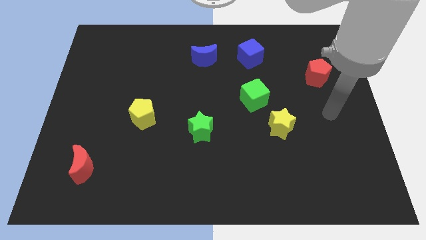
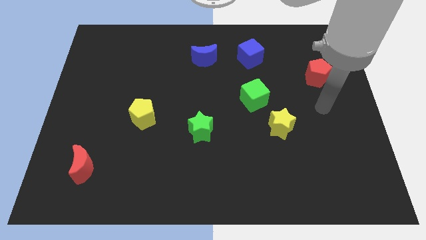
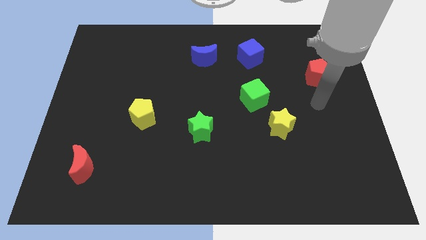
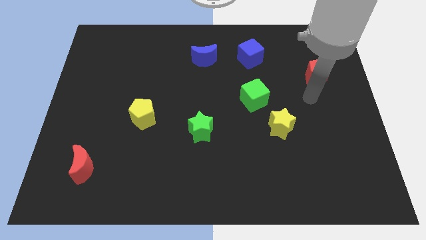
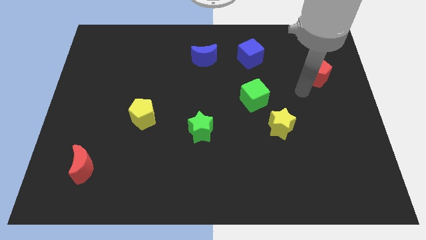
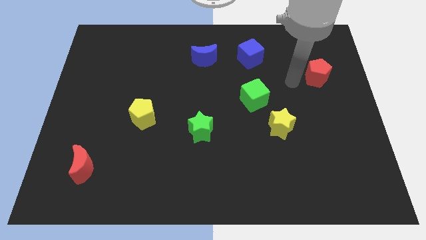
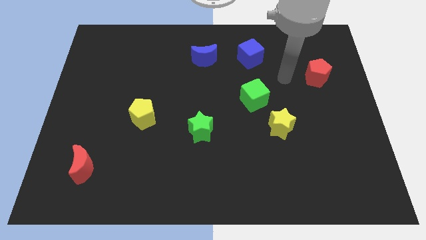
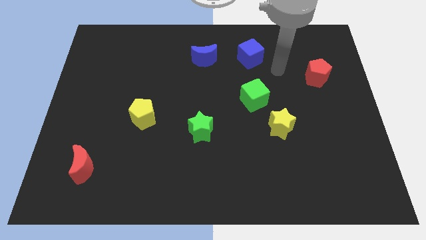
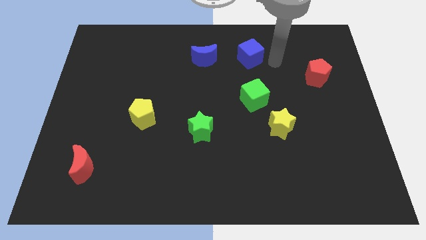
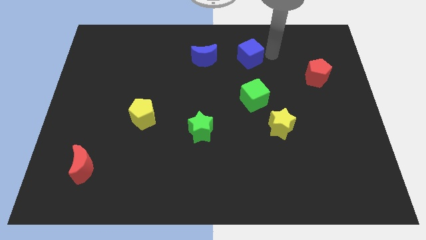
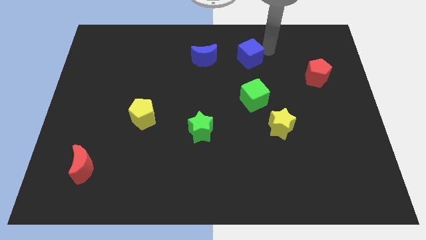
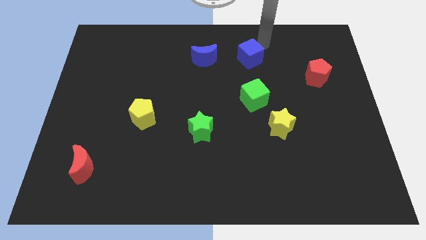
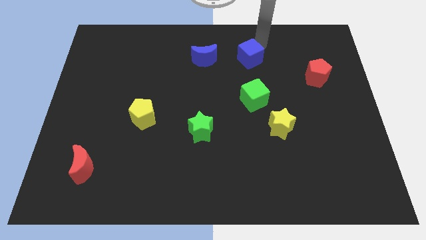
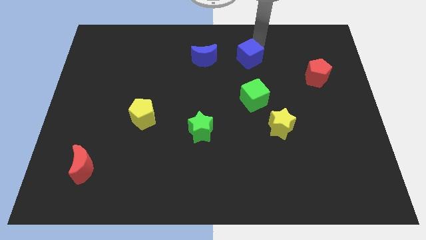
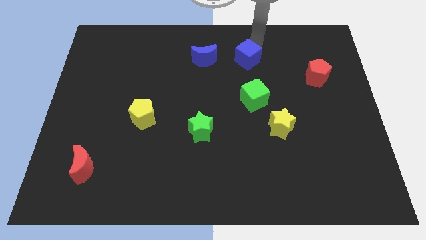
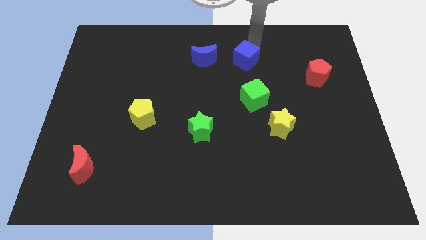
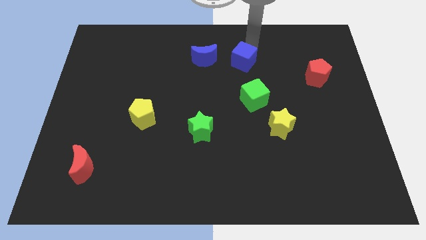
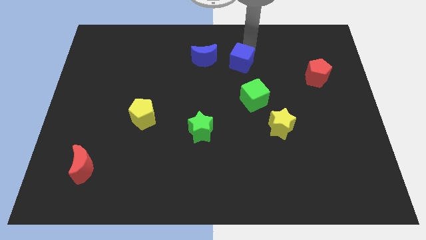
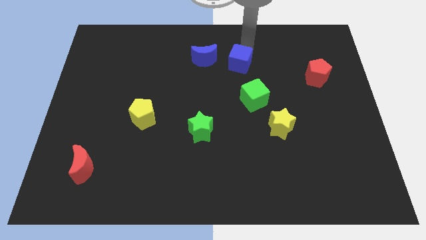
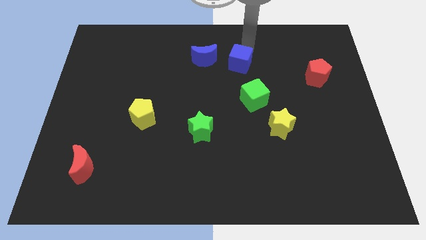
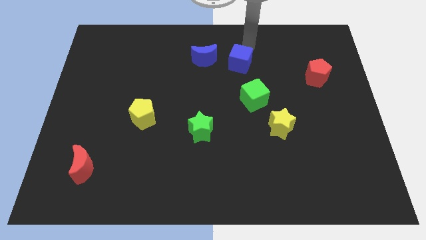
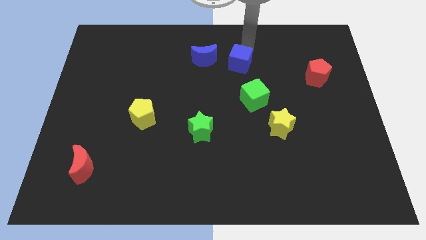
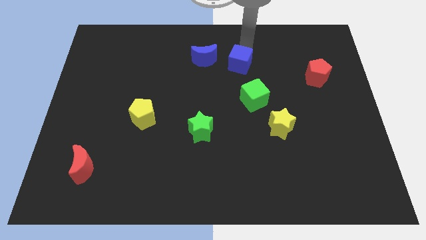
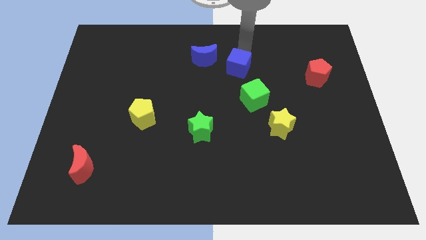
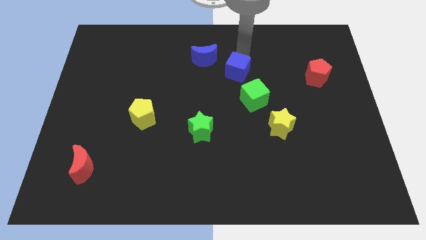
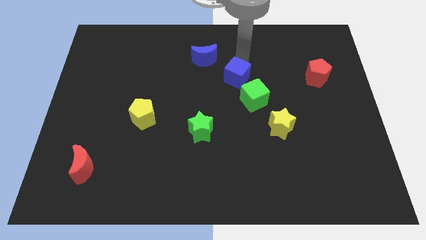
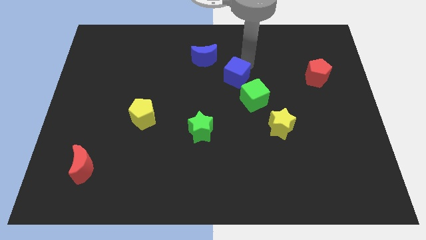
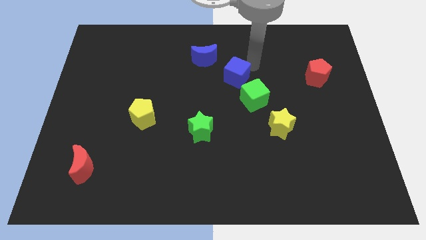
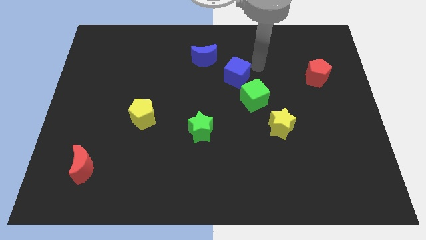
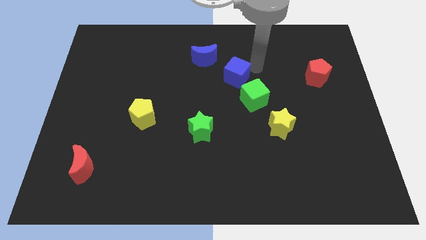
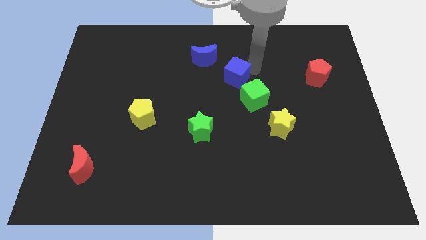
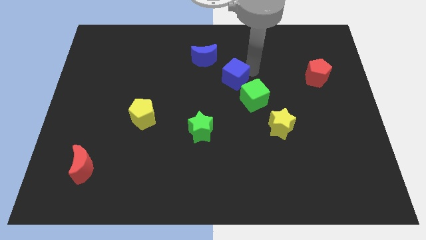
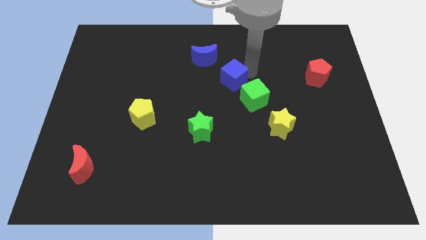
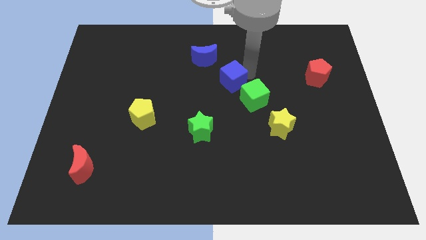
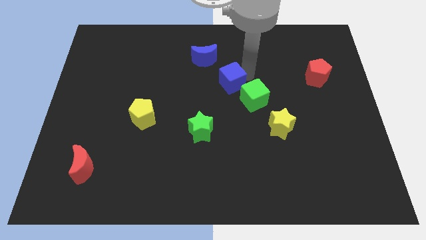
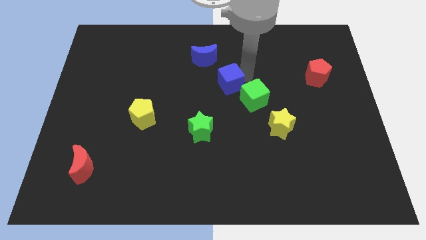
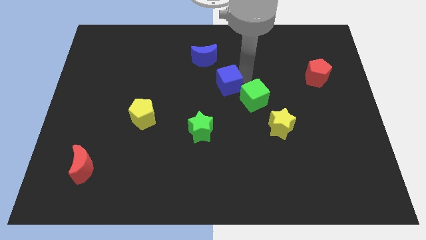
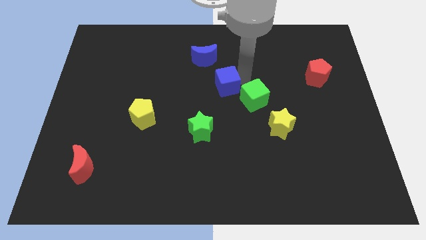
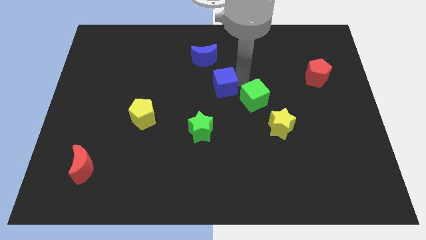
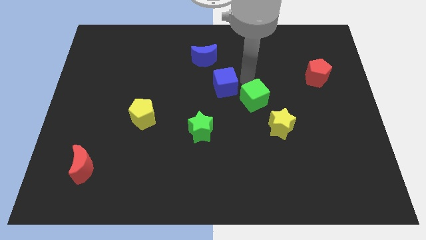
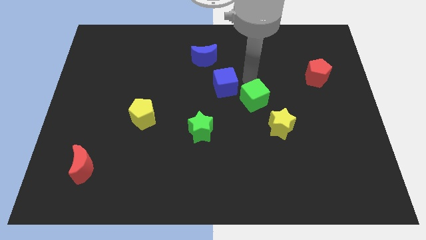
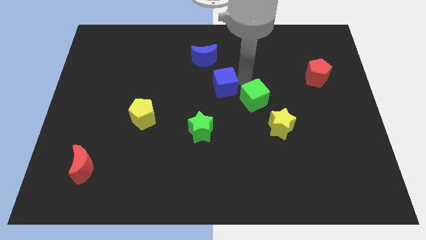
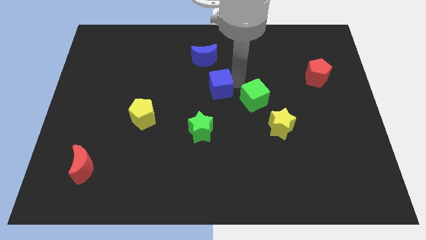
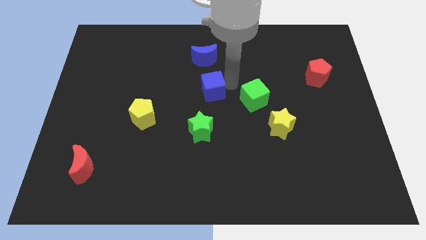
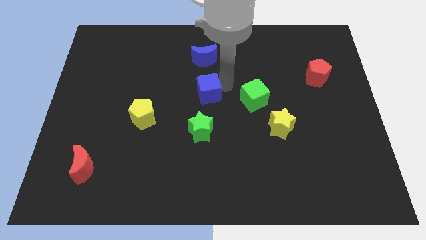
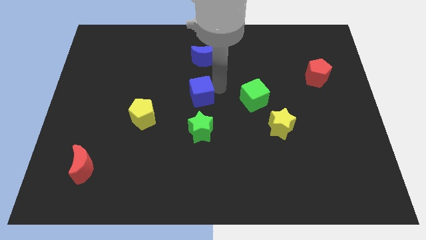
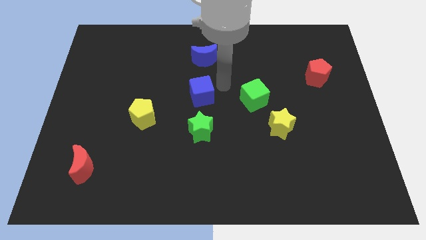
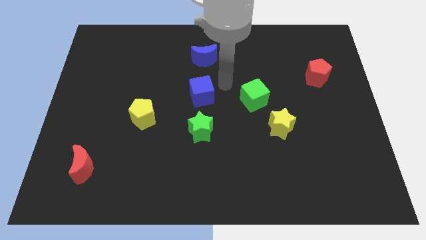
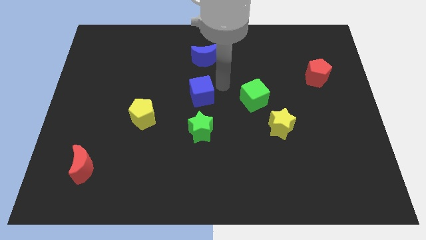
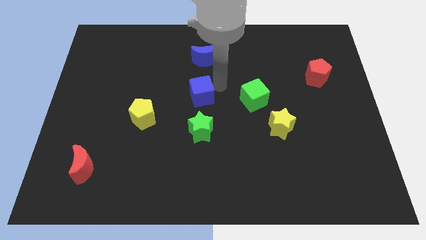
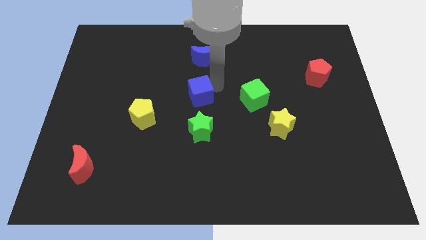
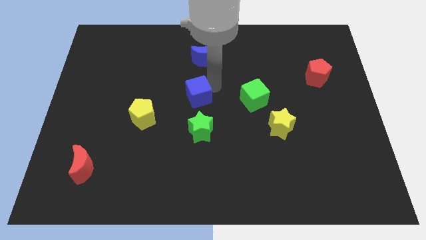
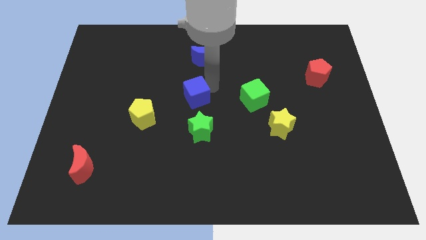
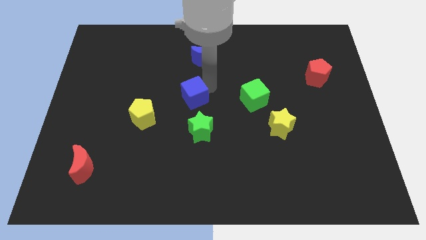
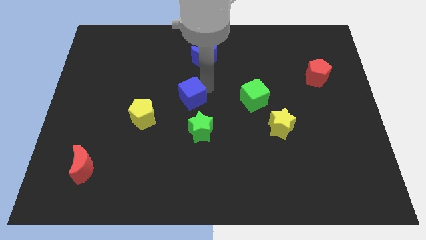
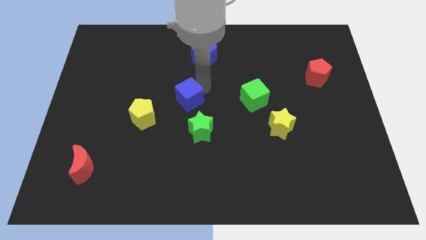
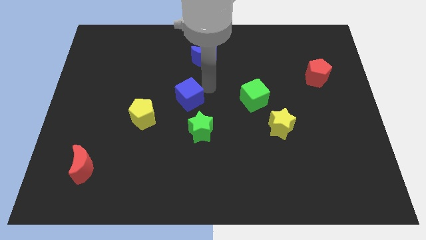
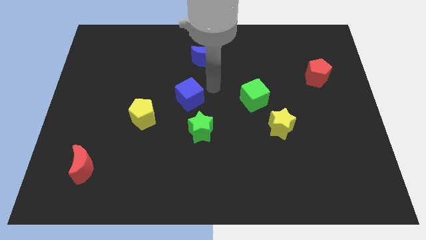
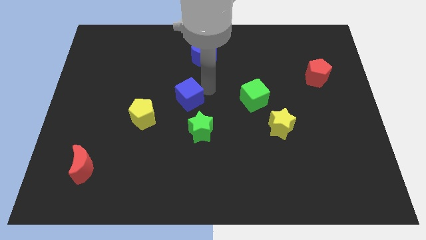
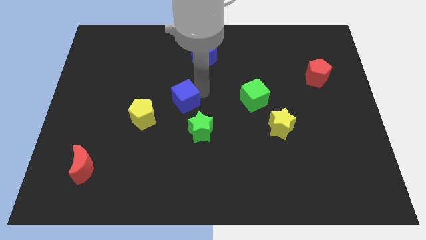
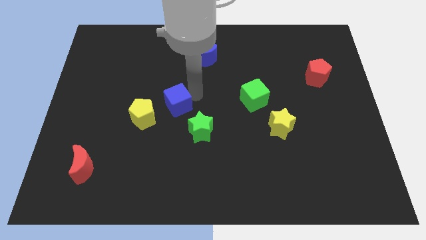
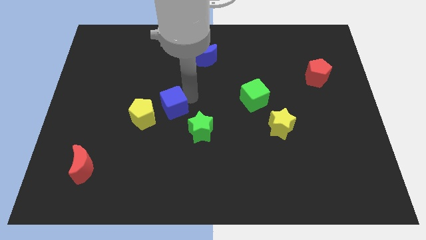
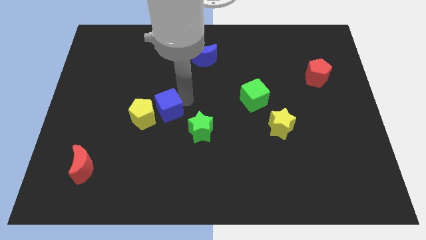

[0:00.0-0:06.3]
push the blue cube next to the yellow pentagon
